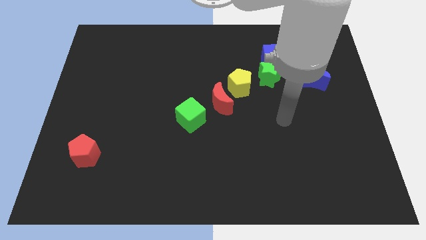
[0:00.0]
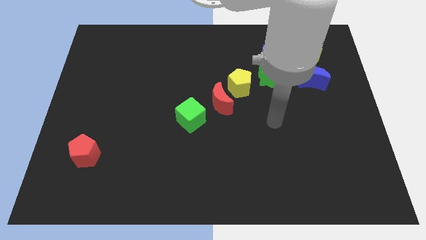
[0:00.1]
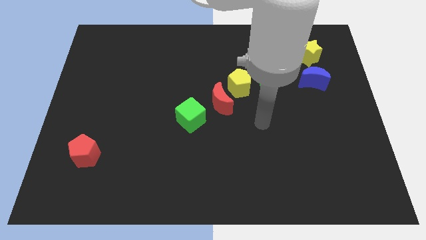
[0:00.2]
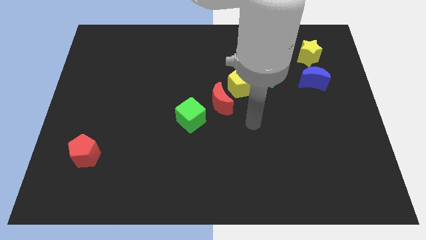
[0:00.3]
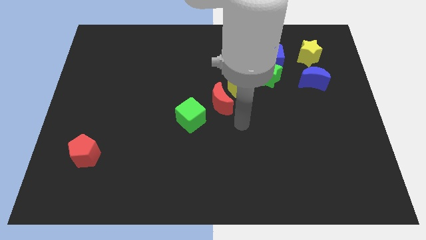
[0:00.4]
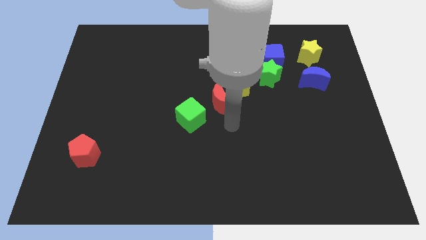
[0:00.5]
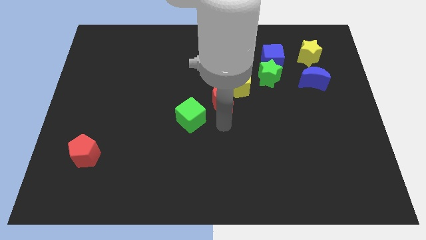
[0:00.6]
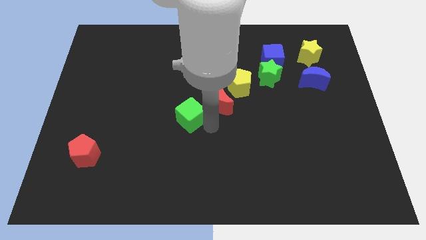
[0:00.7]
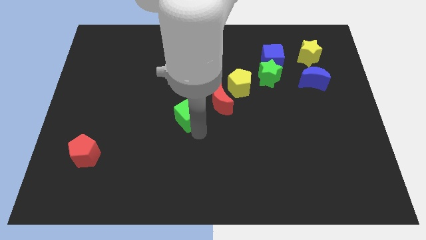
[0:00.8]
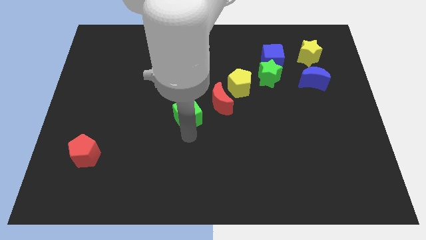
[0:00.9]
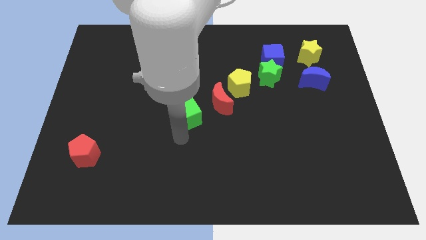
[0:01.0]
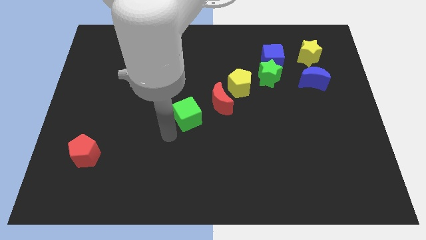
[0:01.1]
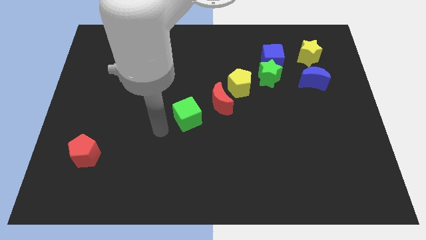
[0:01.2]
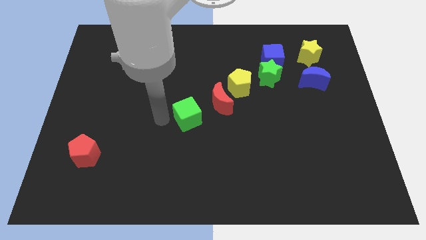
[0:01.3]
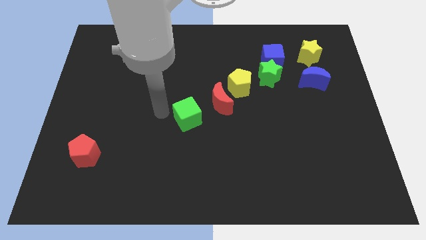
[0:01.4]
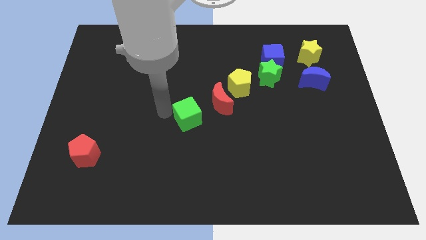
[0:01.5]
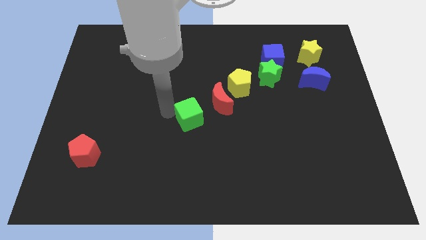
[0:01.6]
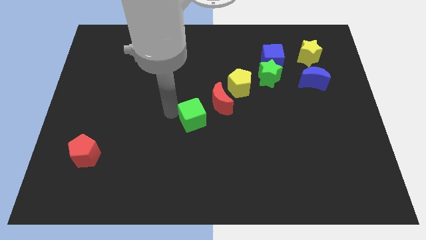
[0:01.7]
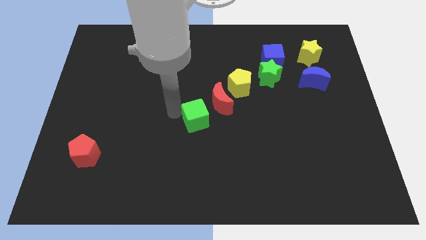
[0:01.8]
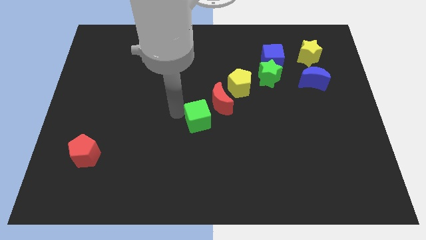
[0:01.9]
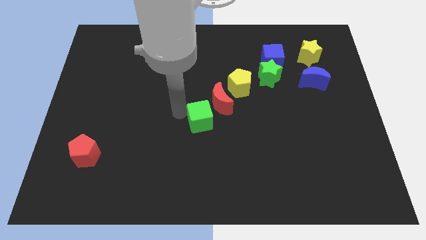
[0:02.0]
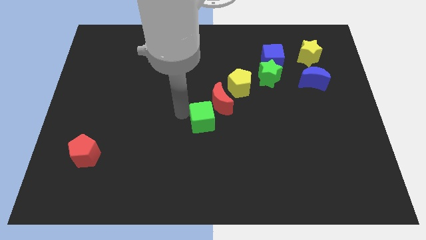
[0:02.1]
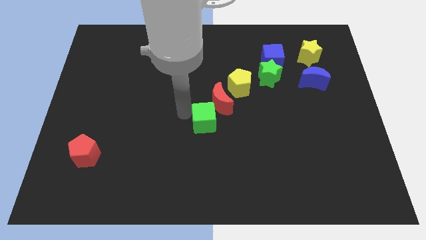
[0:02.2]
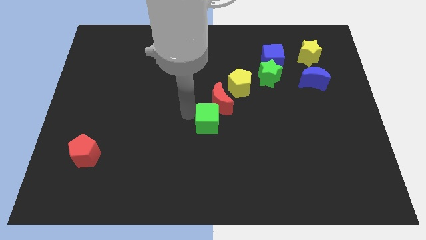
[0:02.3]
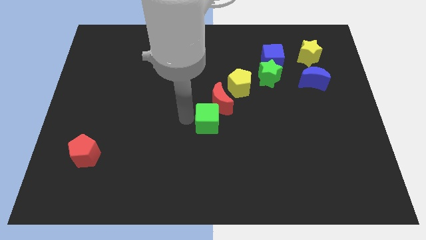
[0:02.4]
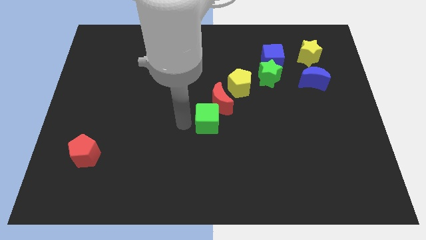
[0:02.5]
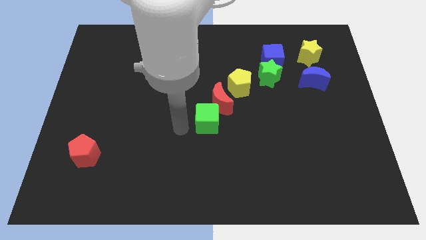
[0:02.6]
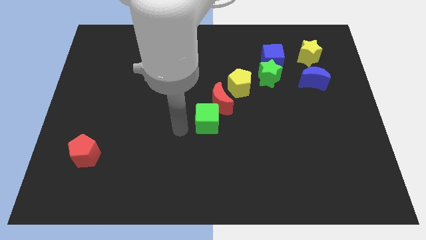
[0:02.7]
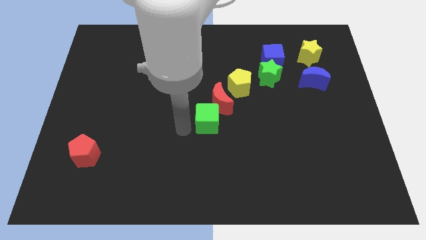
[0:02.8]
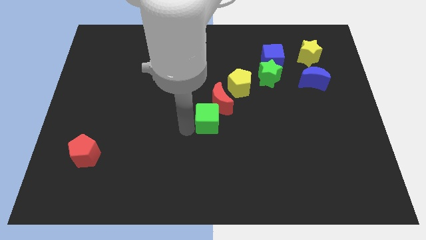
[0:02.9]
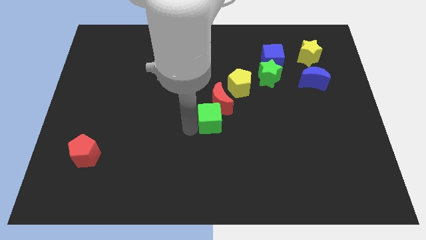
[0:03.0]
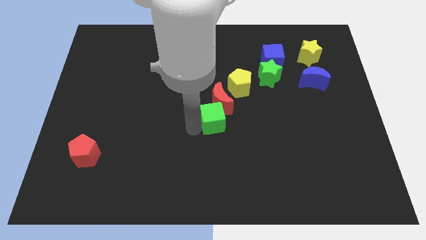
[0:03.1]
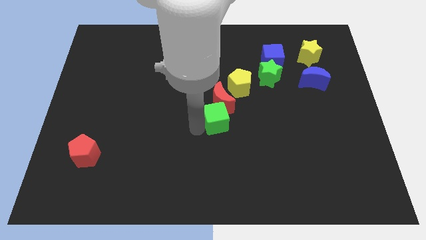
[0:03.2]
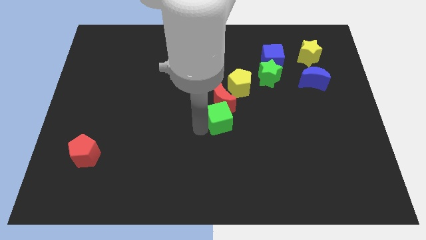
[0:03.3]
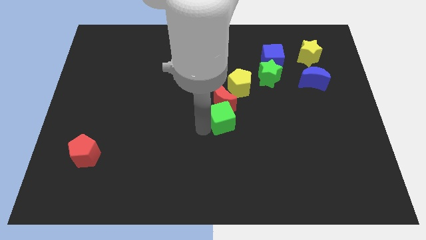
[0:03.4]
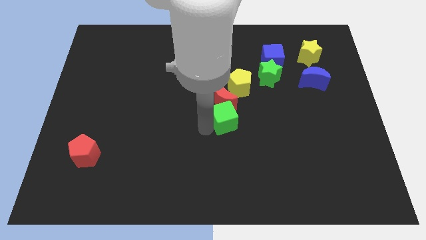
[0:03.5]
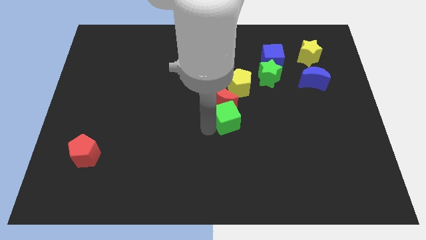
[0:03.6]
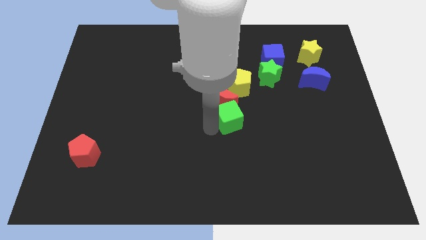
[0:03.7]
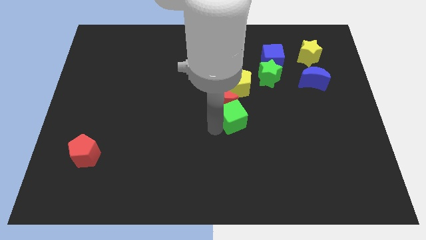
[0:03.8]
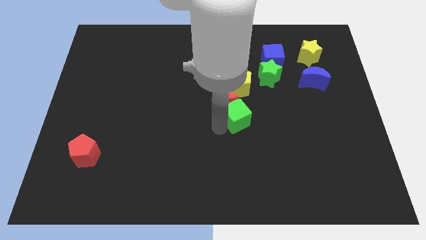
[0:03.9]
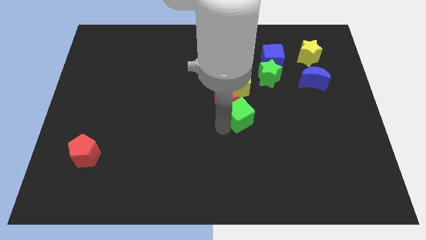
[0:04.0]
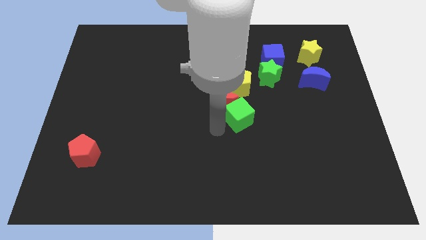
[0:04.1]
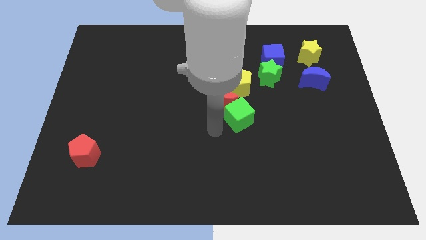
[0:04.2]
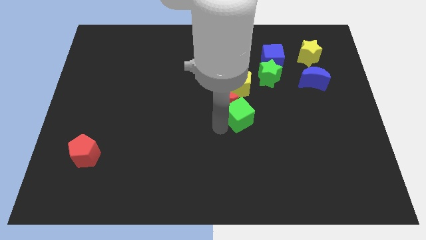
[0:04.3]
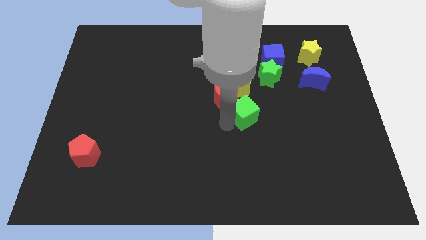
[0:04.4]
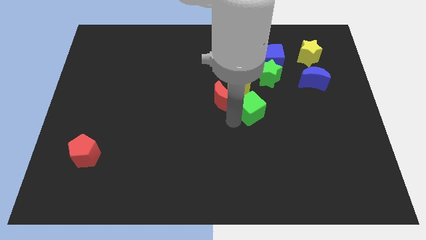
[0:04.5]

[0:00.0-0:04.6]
push the green cube diagonally upwards and to the right a little bit

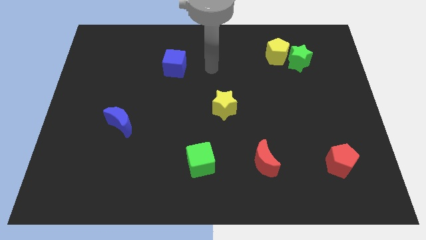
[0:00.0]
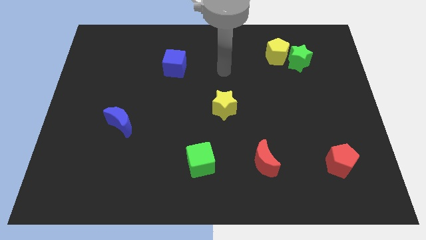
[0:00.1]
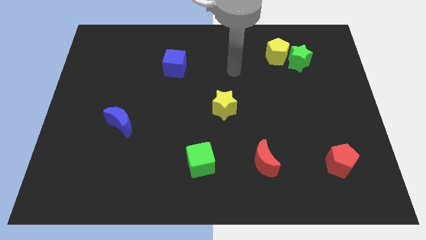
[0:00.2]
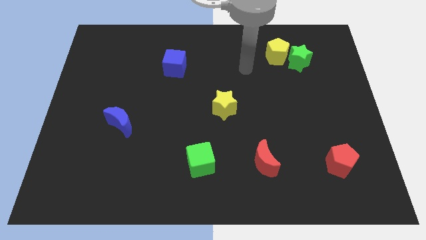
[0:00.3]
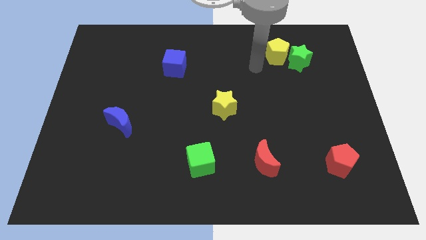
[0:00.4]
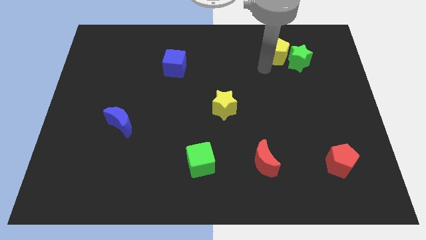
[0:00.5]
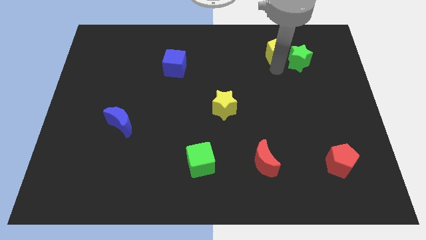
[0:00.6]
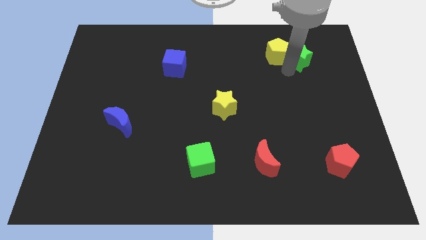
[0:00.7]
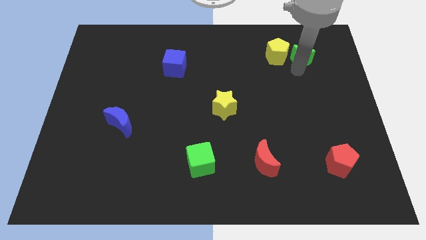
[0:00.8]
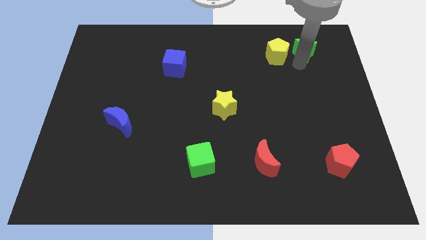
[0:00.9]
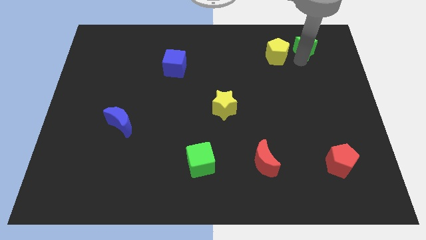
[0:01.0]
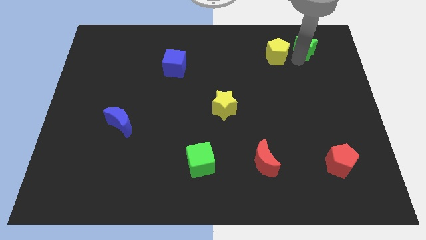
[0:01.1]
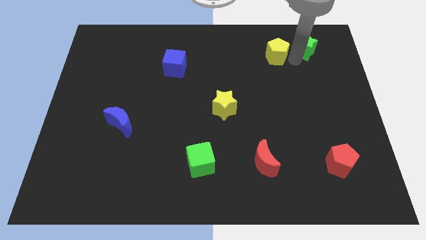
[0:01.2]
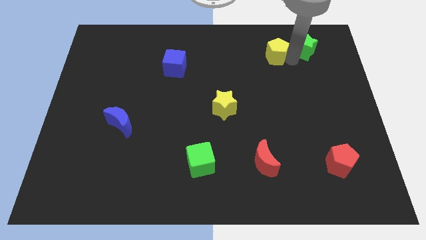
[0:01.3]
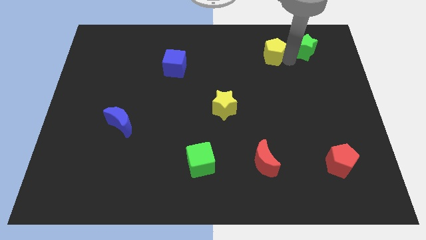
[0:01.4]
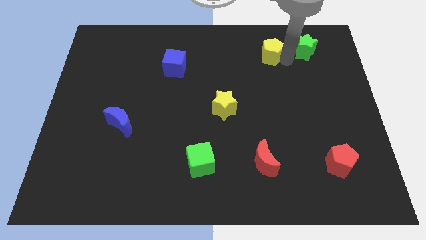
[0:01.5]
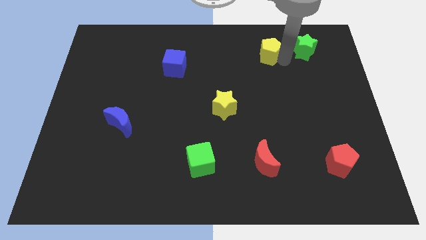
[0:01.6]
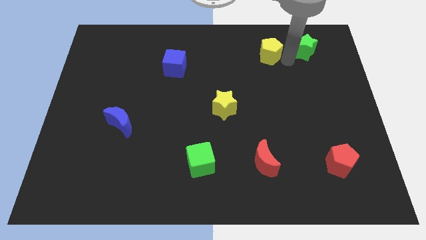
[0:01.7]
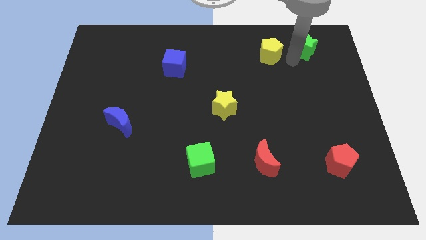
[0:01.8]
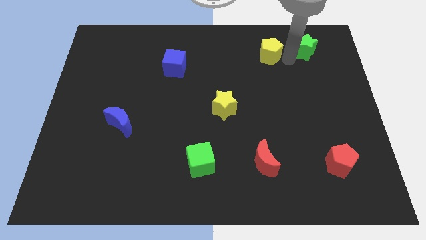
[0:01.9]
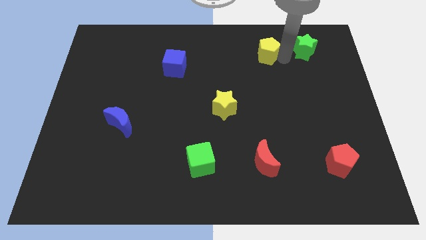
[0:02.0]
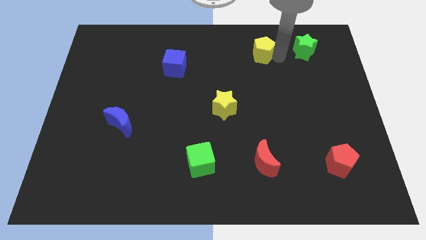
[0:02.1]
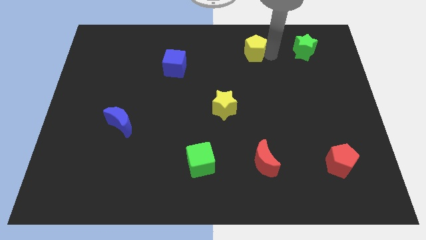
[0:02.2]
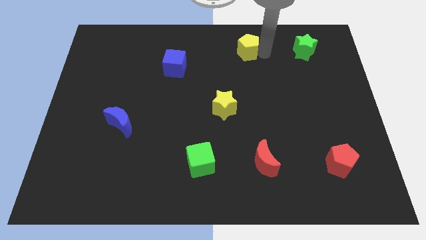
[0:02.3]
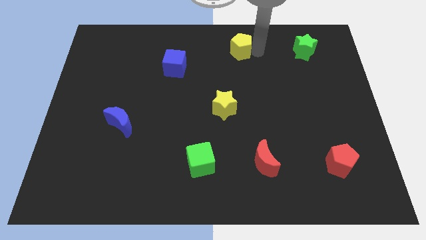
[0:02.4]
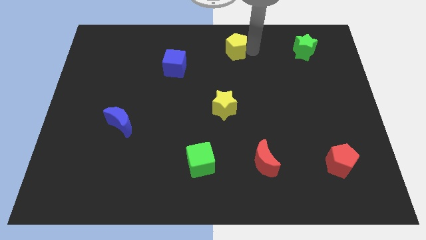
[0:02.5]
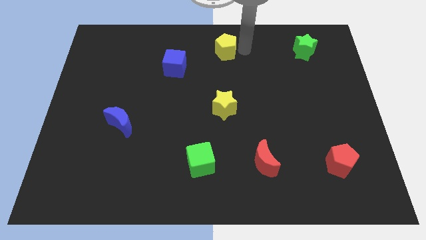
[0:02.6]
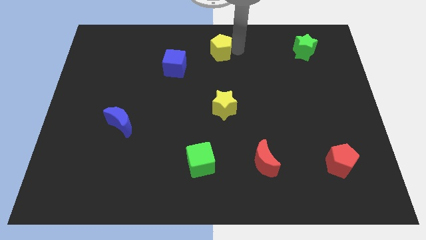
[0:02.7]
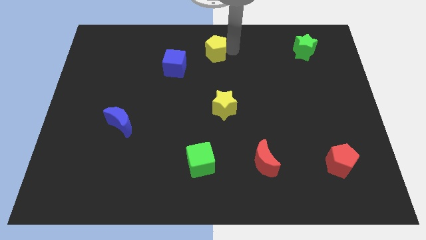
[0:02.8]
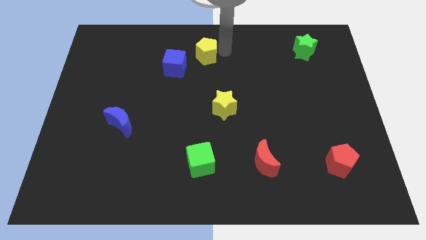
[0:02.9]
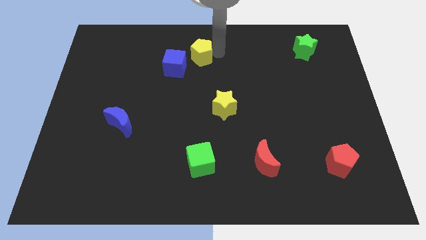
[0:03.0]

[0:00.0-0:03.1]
slide the yellow pentagon to the left

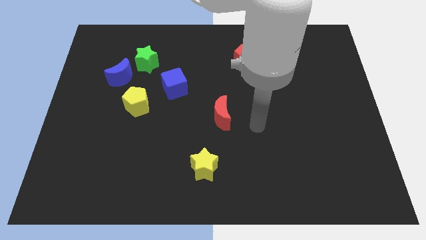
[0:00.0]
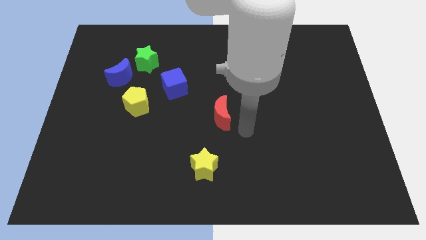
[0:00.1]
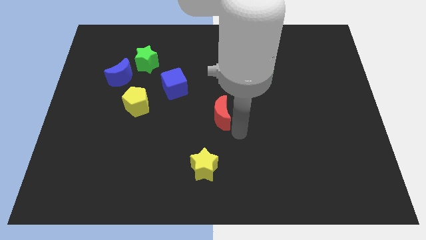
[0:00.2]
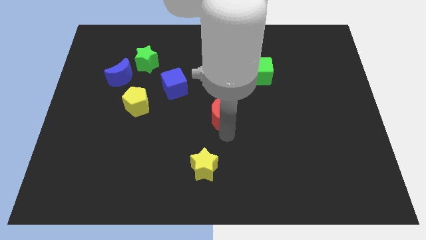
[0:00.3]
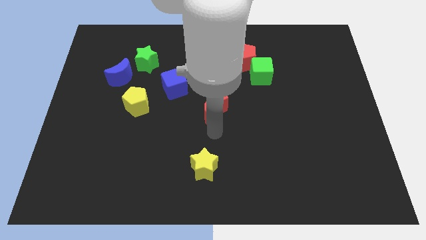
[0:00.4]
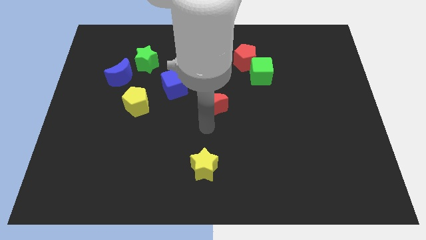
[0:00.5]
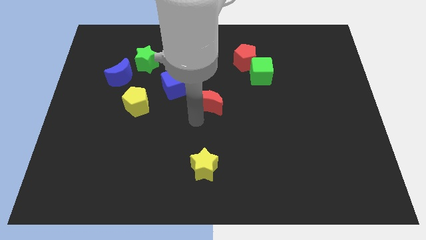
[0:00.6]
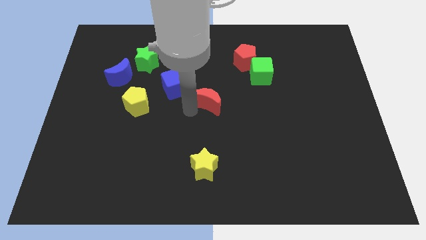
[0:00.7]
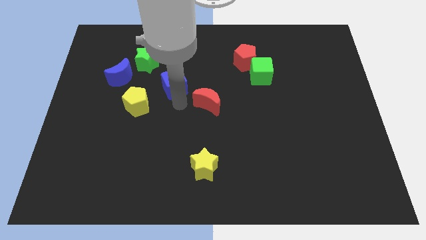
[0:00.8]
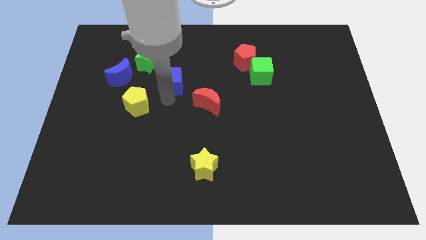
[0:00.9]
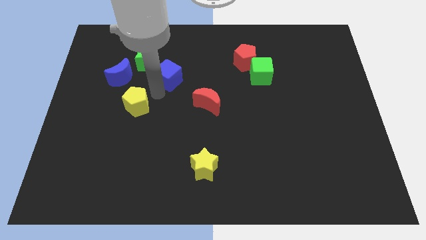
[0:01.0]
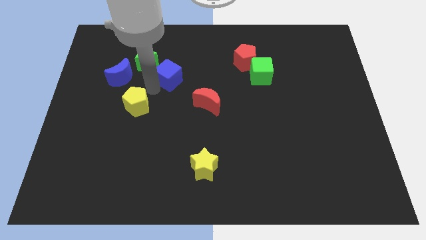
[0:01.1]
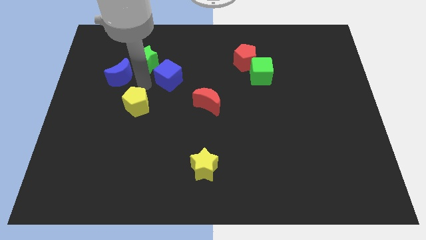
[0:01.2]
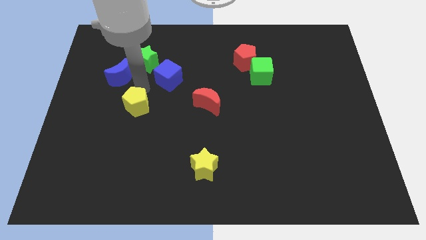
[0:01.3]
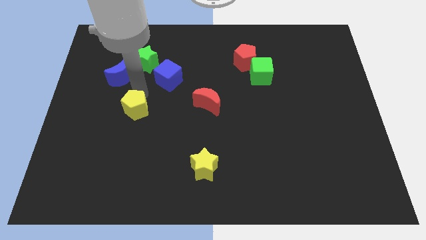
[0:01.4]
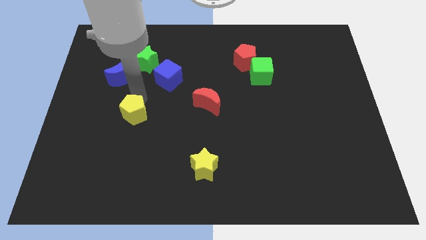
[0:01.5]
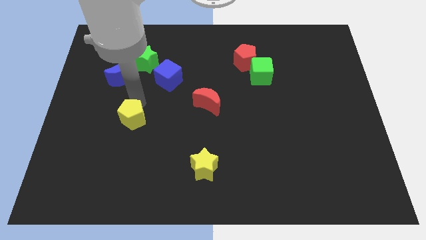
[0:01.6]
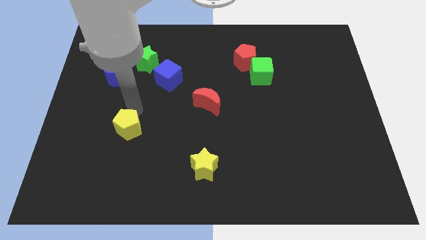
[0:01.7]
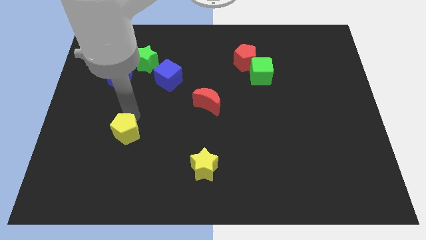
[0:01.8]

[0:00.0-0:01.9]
slightly slide the yellow pentagon down
